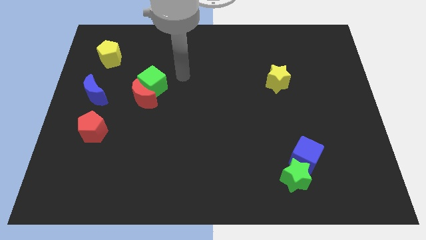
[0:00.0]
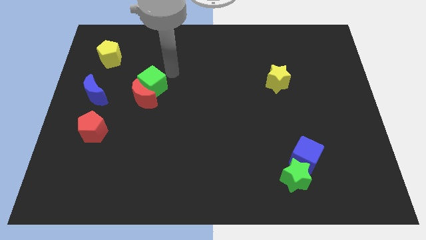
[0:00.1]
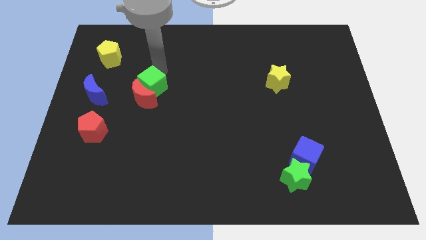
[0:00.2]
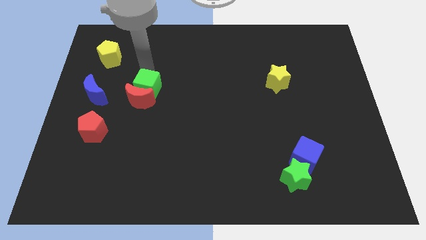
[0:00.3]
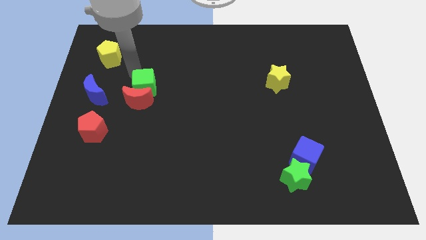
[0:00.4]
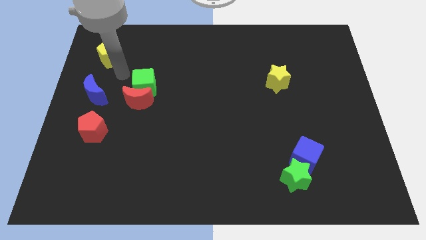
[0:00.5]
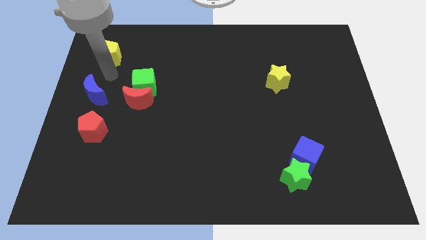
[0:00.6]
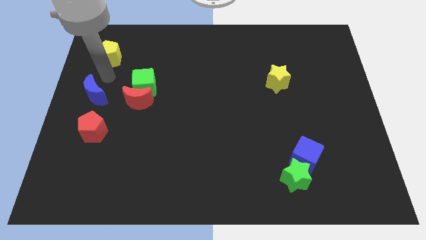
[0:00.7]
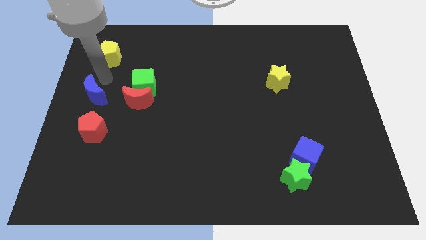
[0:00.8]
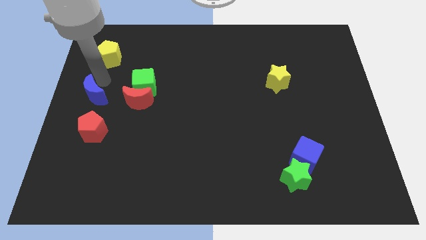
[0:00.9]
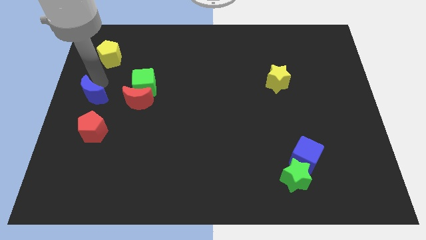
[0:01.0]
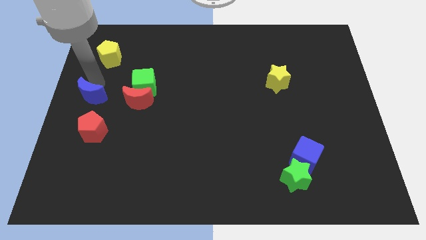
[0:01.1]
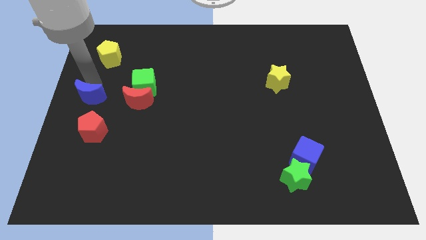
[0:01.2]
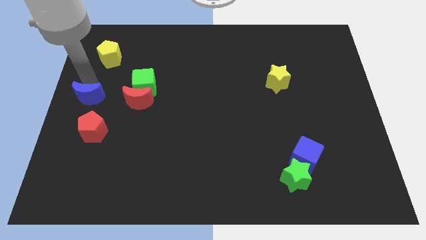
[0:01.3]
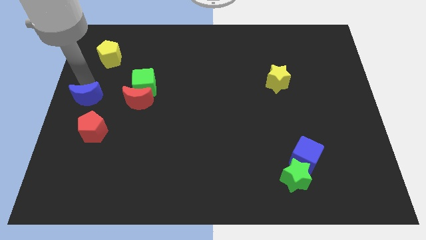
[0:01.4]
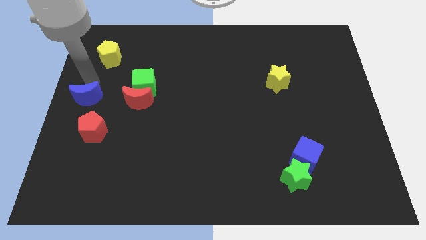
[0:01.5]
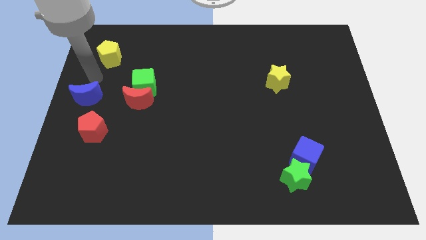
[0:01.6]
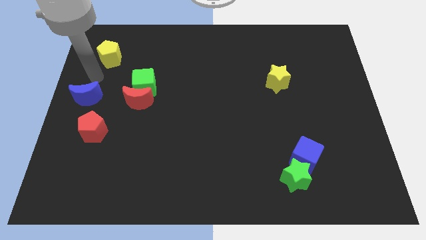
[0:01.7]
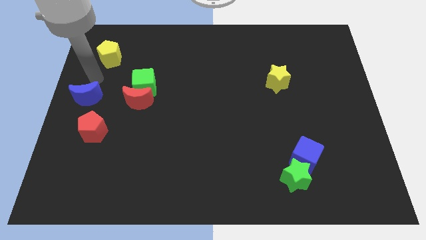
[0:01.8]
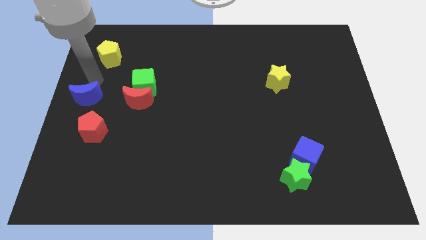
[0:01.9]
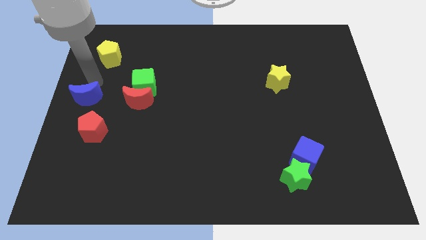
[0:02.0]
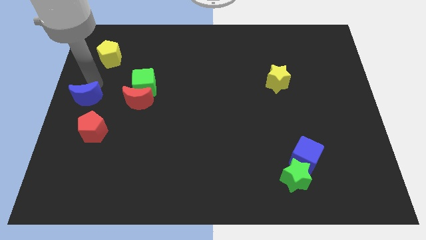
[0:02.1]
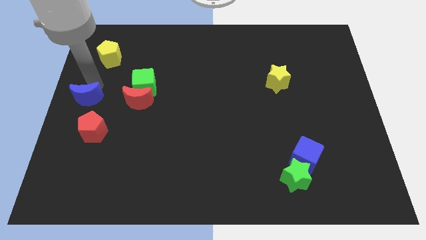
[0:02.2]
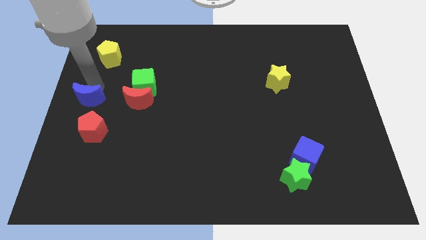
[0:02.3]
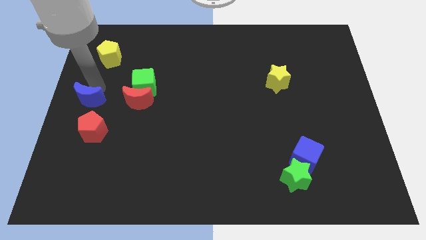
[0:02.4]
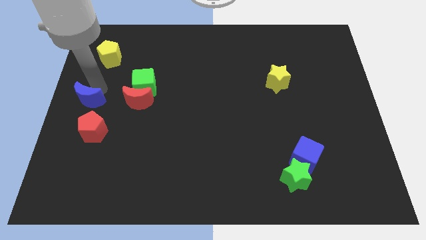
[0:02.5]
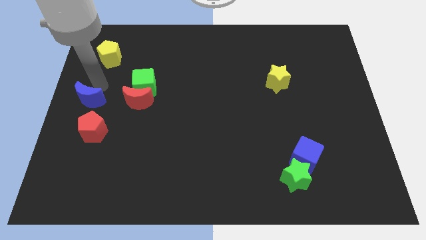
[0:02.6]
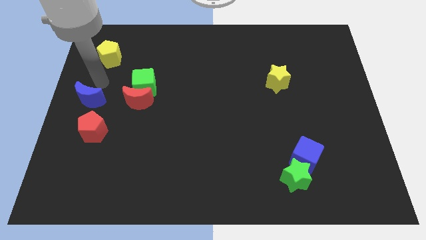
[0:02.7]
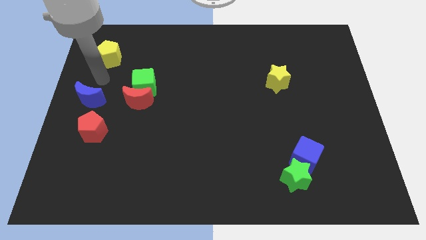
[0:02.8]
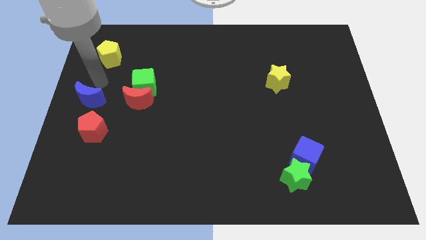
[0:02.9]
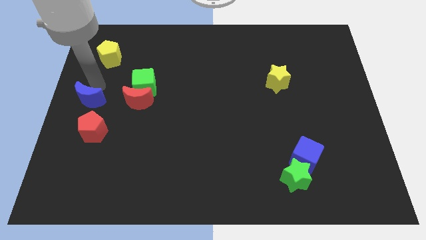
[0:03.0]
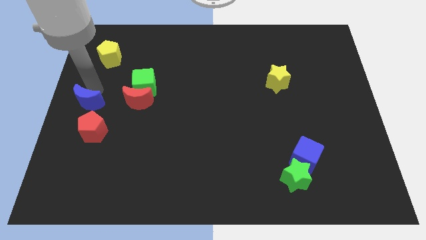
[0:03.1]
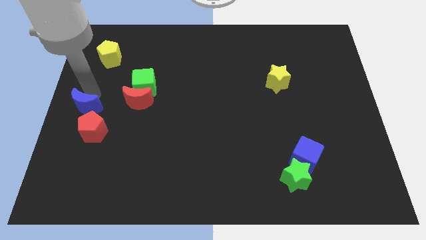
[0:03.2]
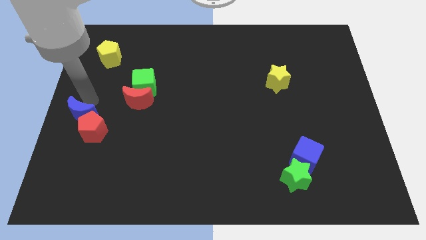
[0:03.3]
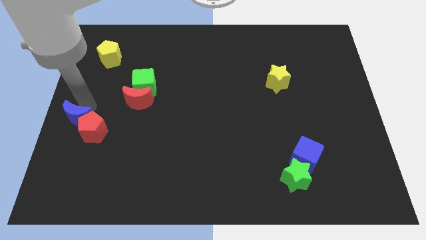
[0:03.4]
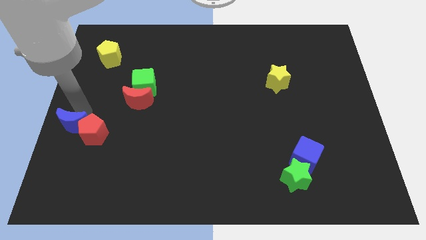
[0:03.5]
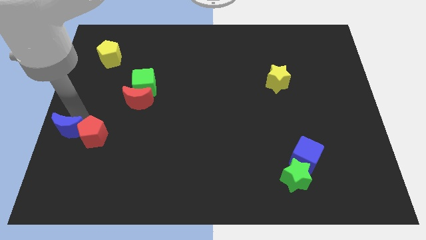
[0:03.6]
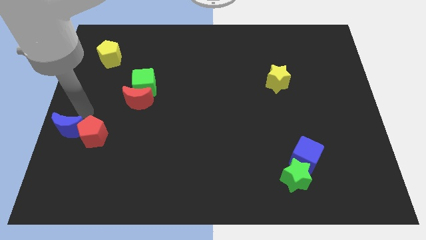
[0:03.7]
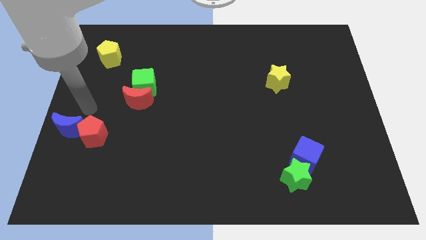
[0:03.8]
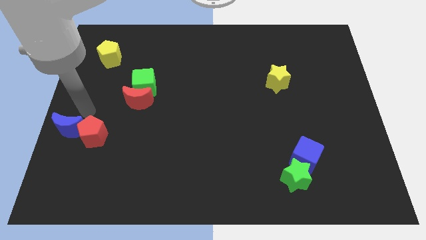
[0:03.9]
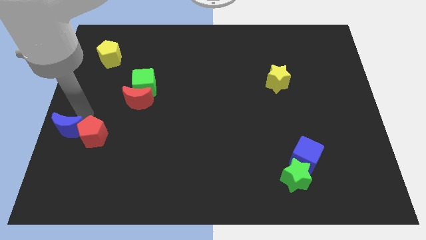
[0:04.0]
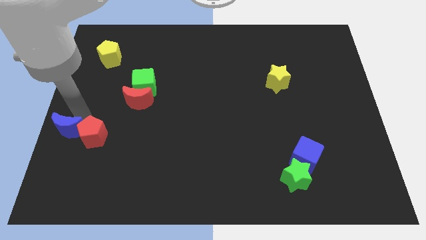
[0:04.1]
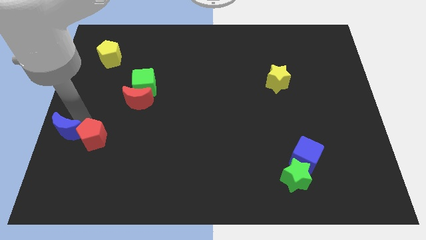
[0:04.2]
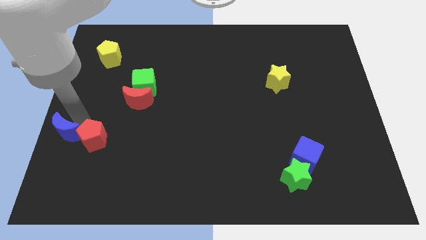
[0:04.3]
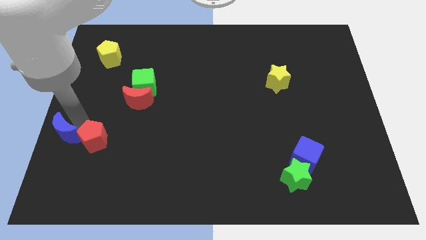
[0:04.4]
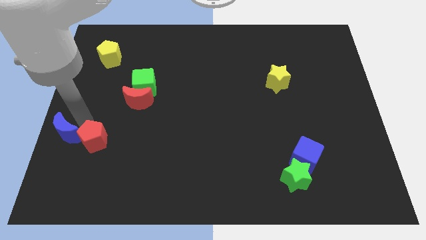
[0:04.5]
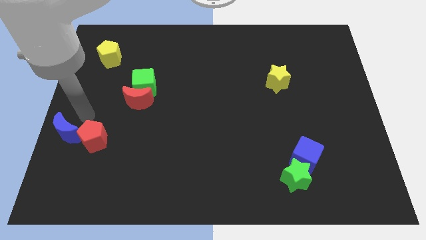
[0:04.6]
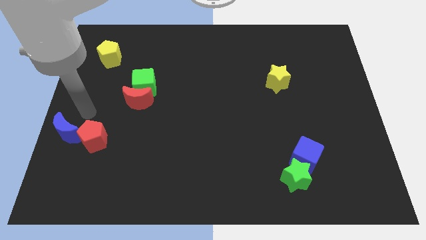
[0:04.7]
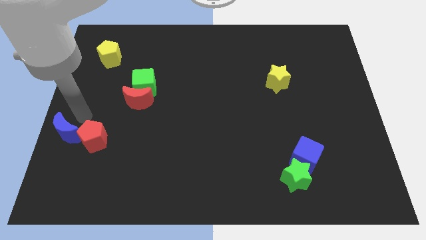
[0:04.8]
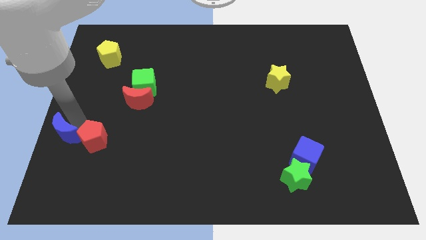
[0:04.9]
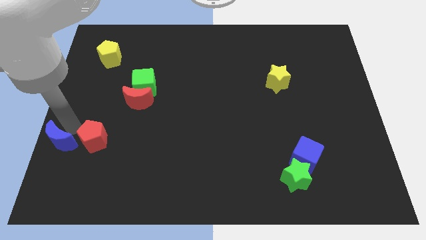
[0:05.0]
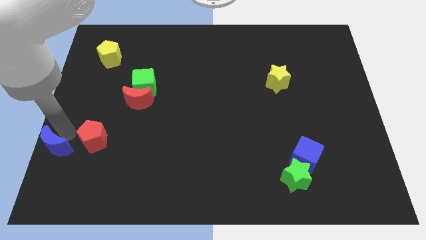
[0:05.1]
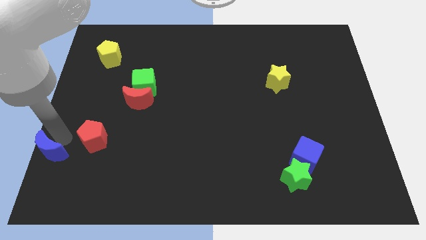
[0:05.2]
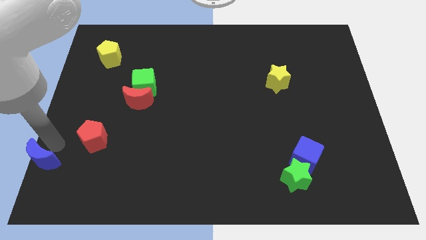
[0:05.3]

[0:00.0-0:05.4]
move the blue moon to the bottom left of the board

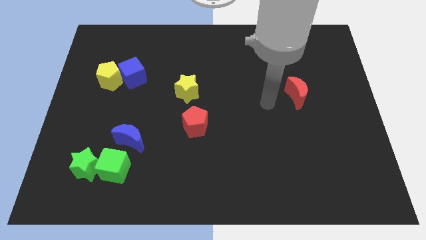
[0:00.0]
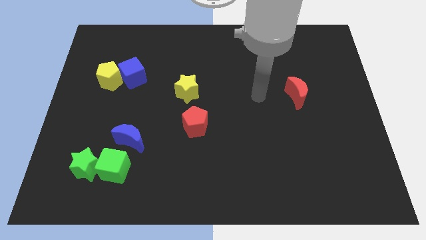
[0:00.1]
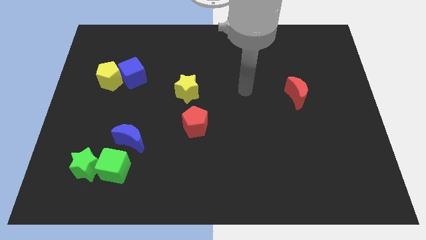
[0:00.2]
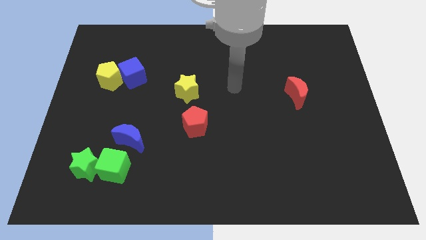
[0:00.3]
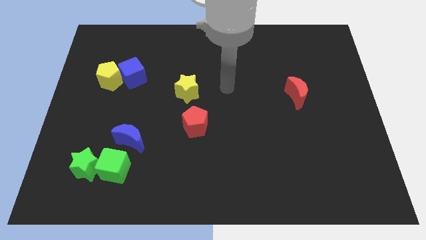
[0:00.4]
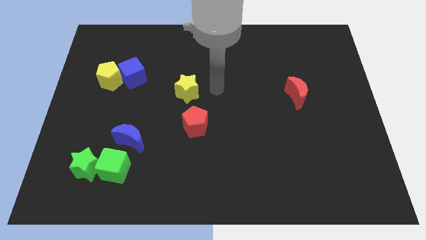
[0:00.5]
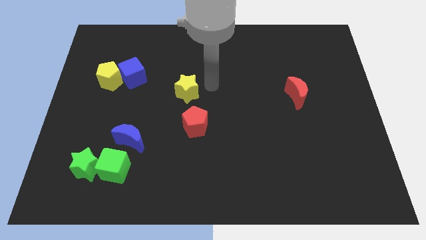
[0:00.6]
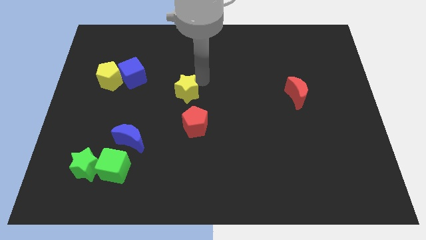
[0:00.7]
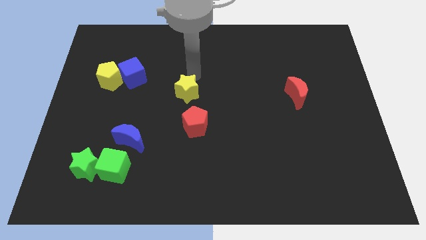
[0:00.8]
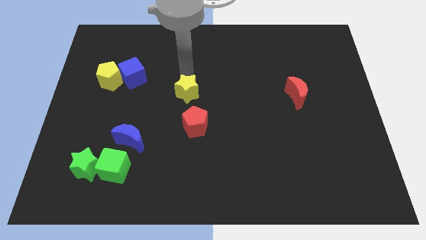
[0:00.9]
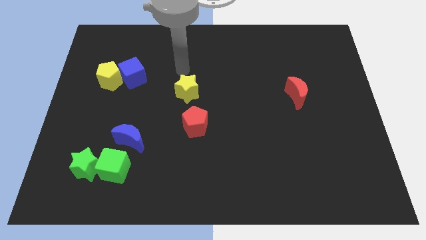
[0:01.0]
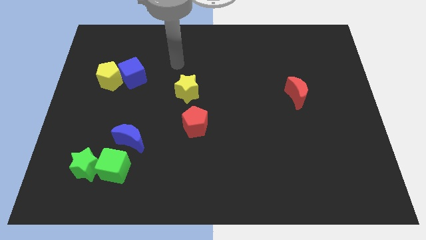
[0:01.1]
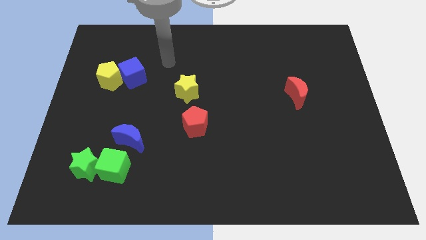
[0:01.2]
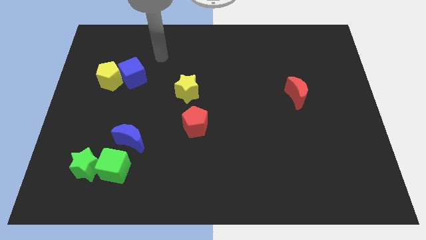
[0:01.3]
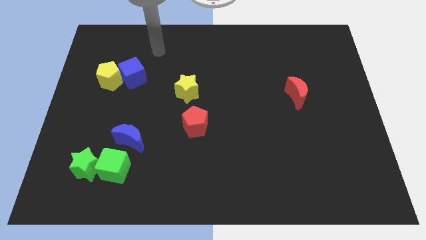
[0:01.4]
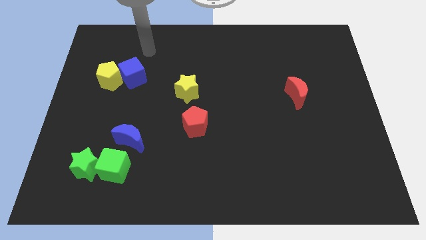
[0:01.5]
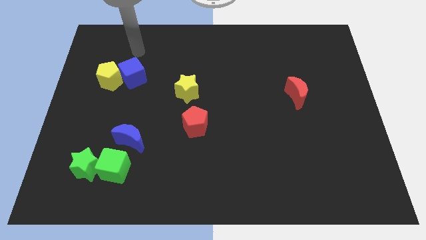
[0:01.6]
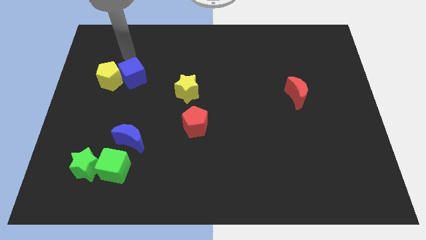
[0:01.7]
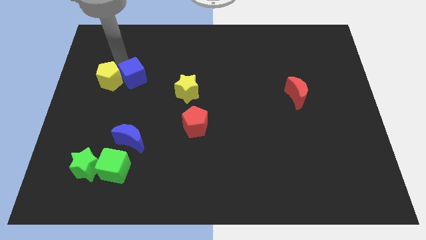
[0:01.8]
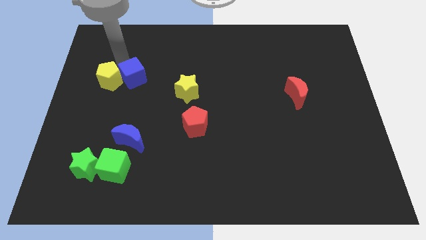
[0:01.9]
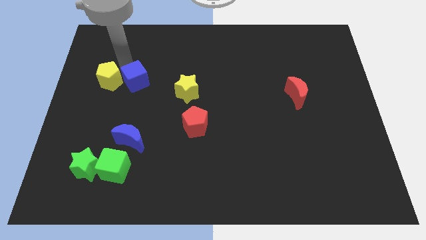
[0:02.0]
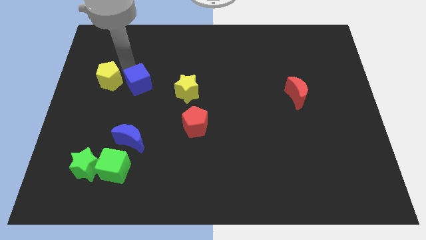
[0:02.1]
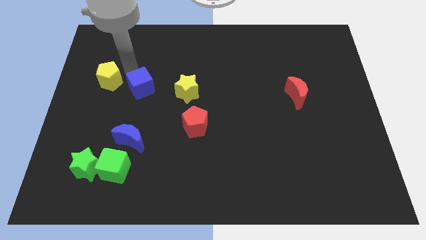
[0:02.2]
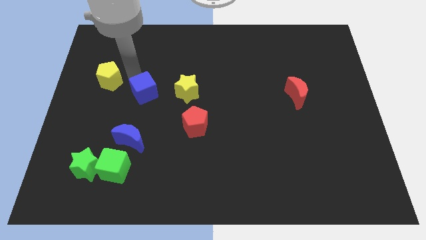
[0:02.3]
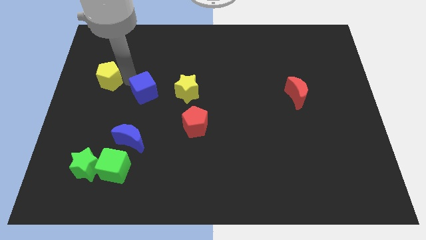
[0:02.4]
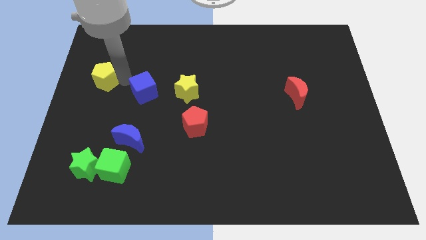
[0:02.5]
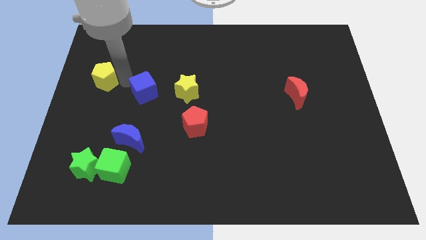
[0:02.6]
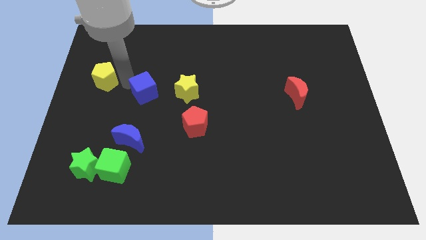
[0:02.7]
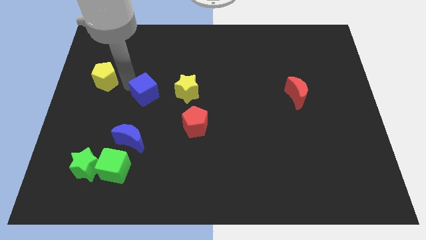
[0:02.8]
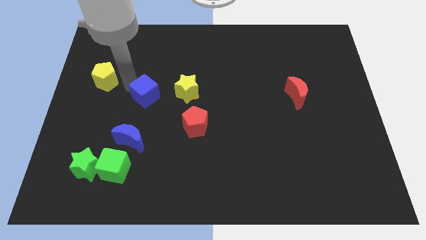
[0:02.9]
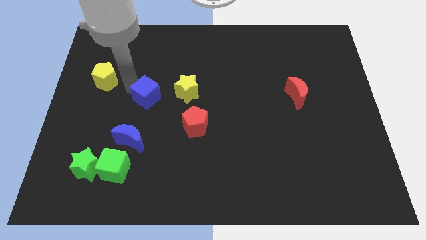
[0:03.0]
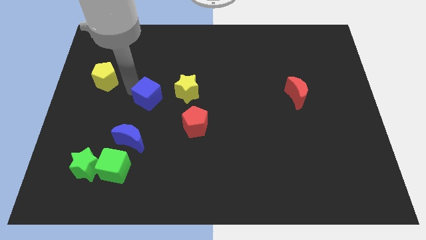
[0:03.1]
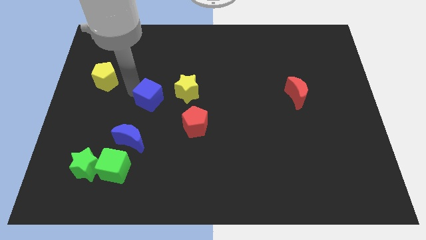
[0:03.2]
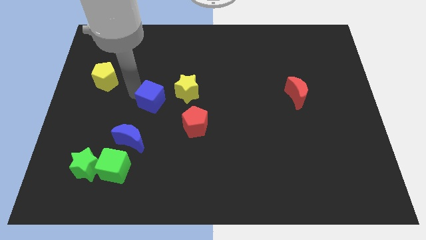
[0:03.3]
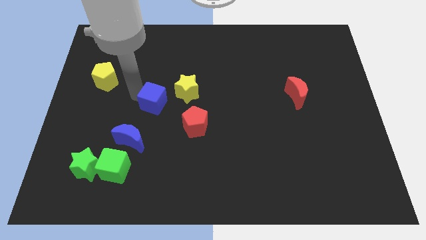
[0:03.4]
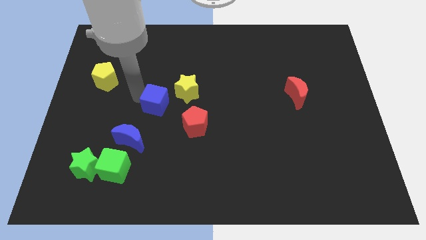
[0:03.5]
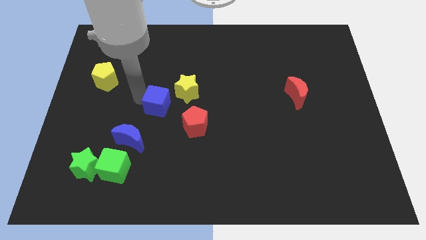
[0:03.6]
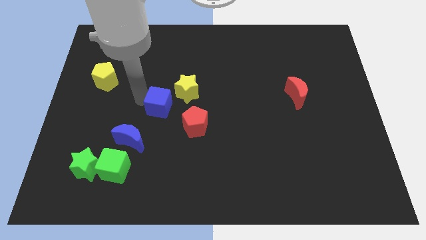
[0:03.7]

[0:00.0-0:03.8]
put the blue cube to the middle of the board
